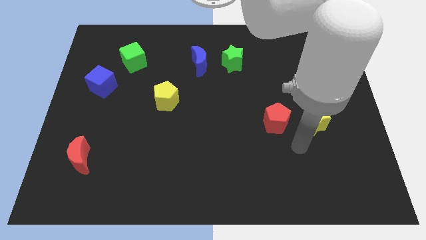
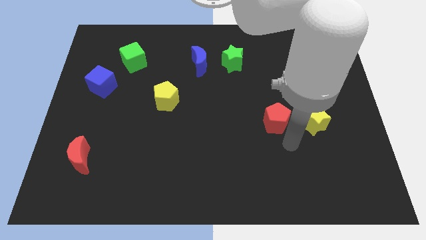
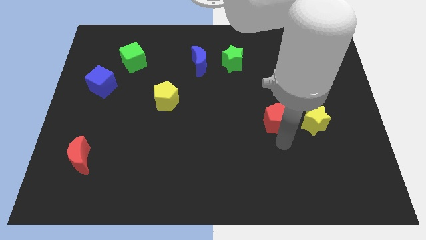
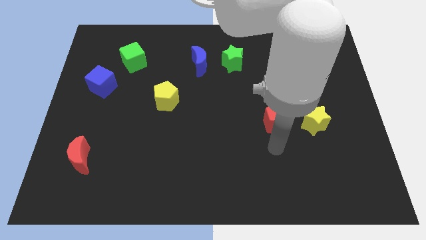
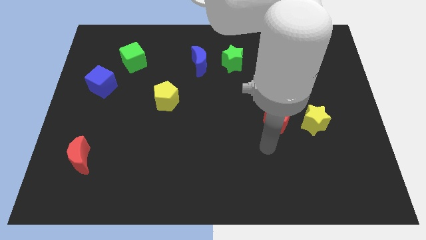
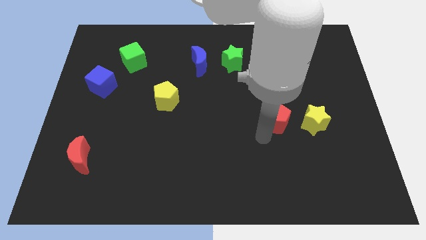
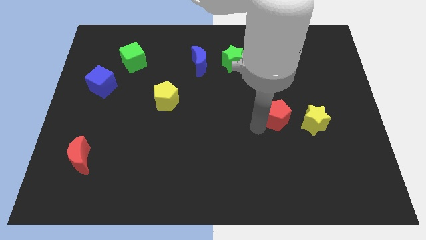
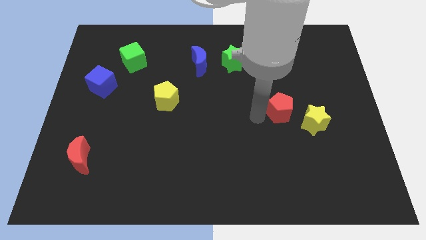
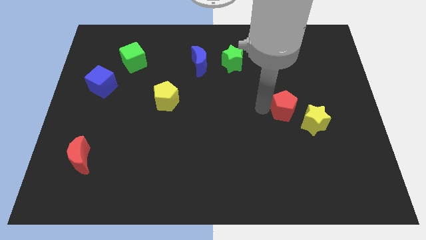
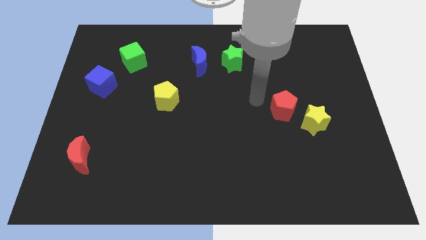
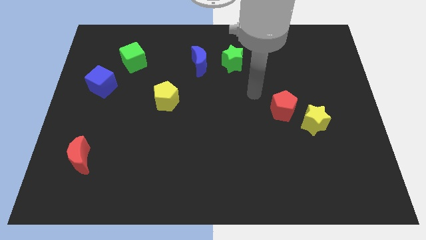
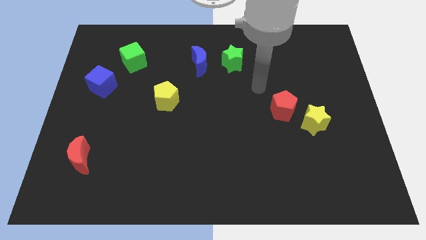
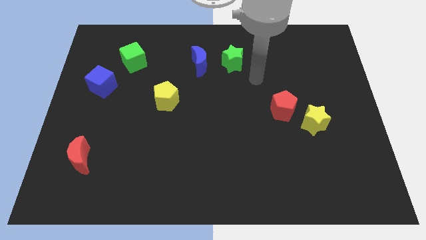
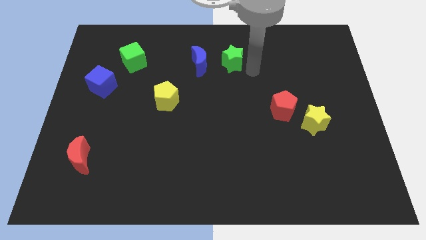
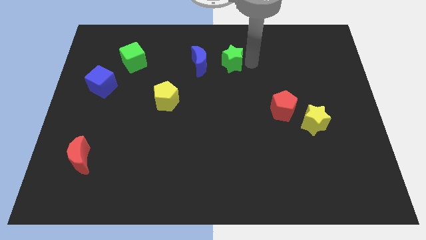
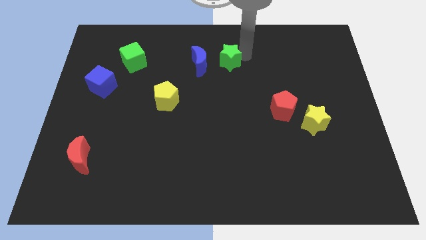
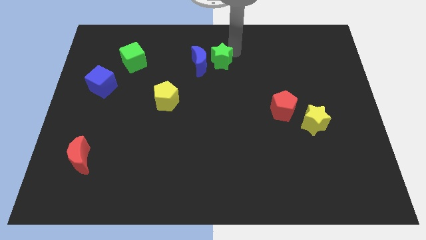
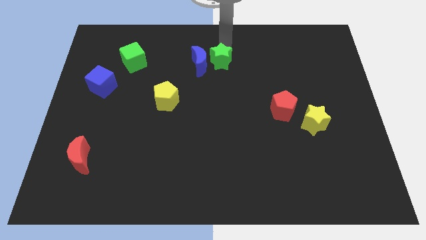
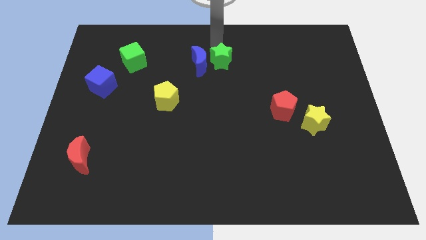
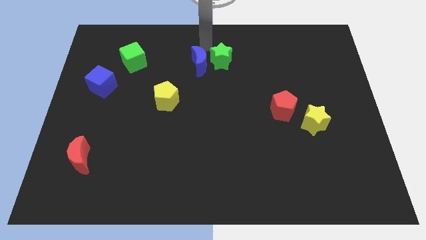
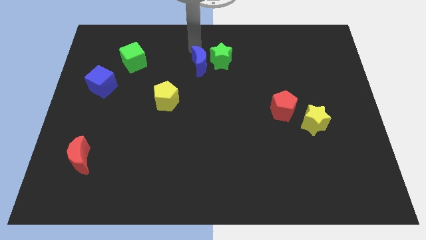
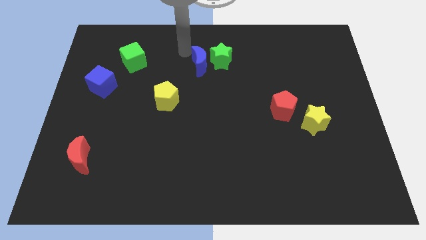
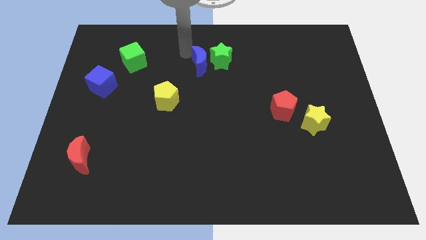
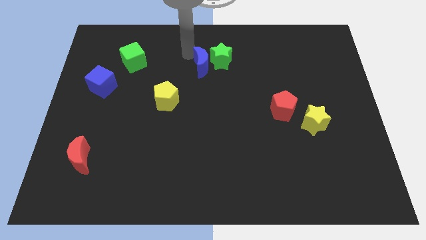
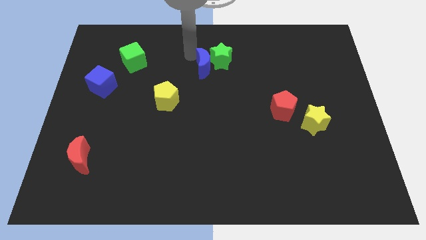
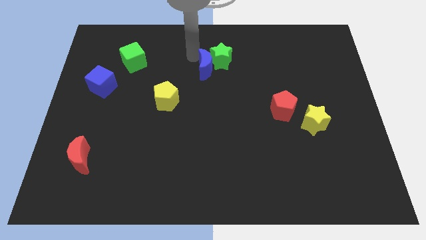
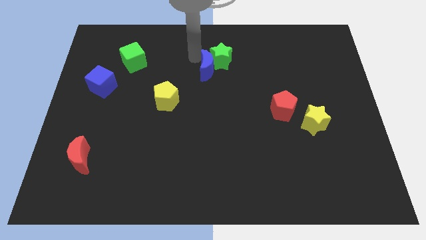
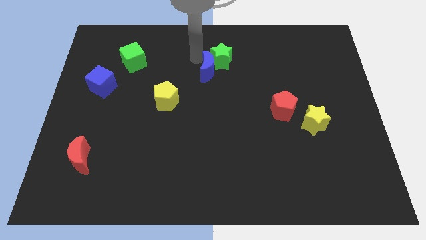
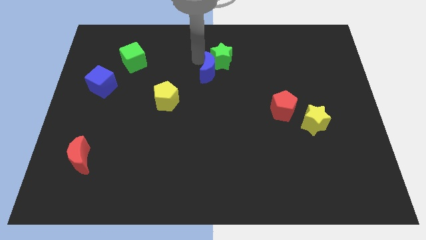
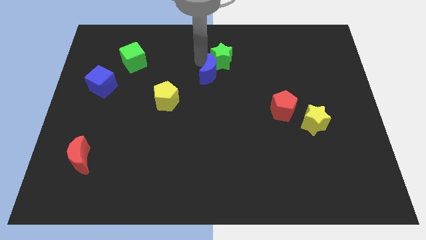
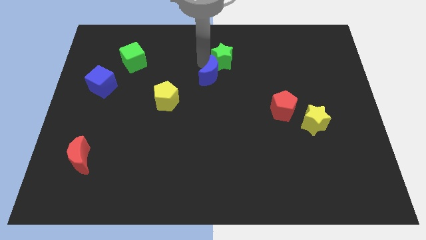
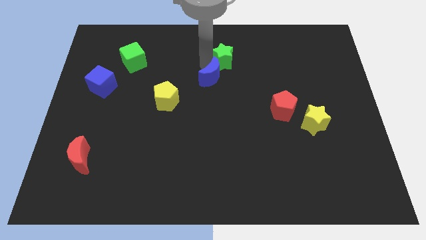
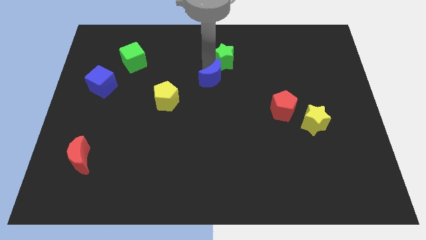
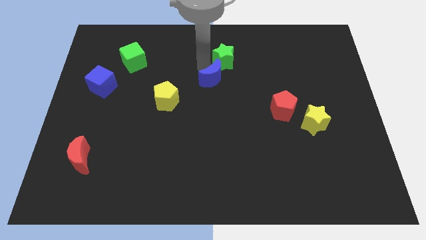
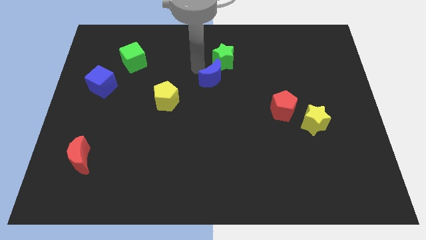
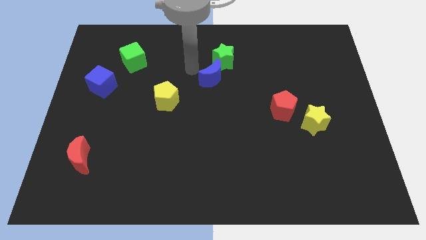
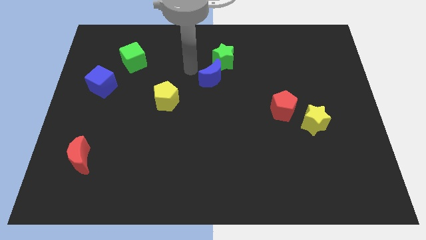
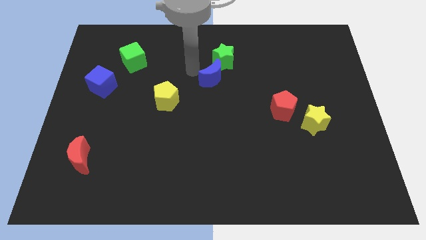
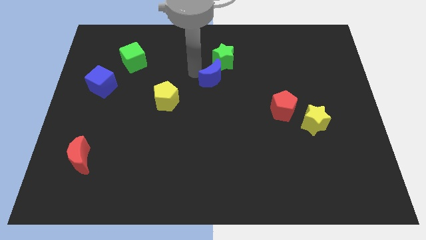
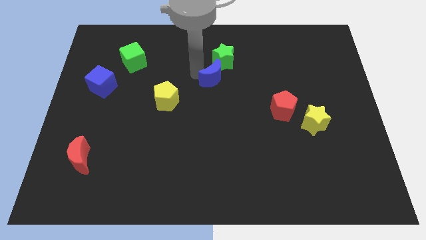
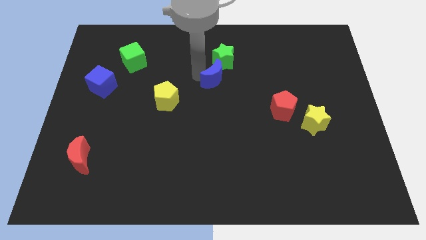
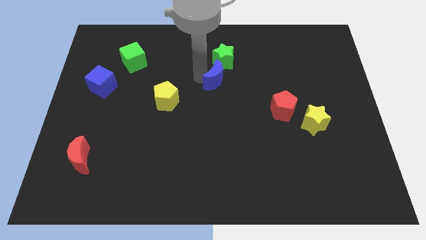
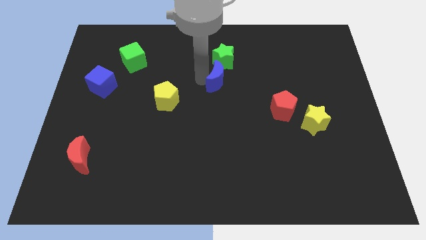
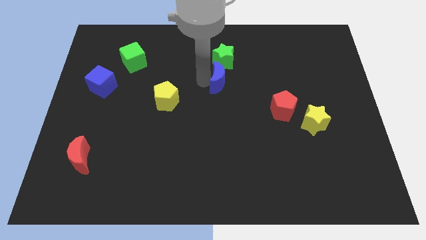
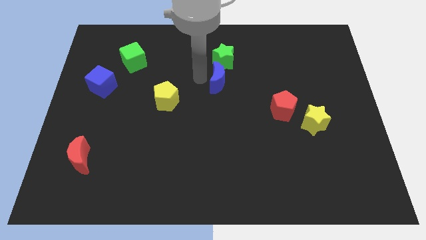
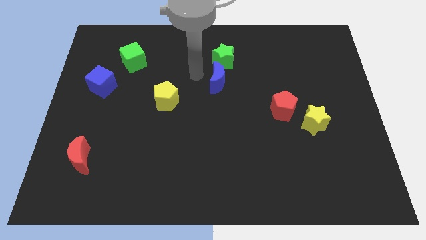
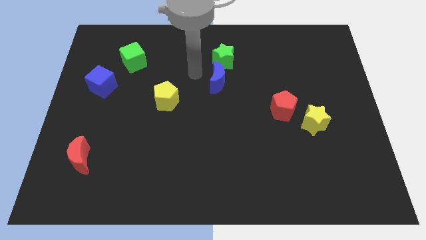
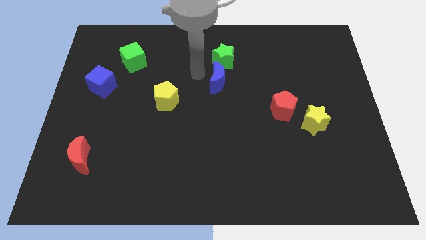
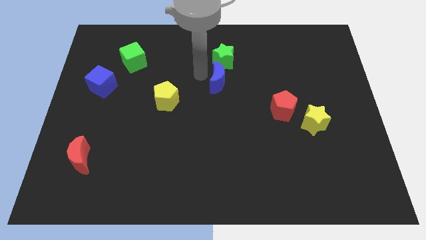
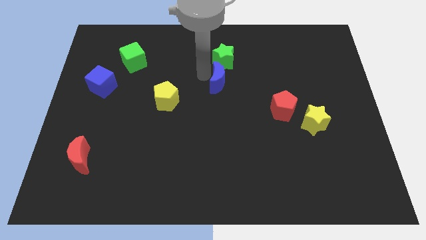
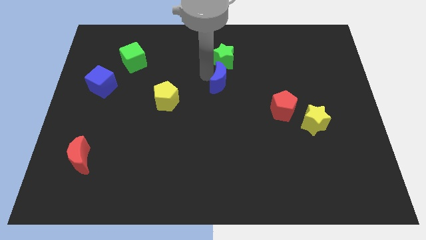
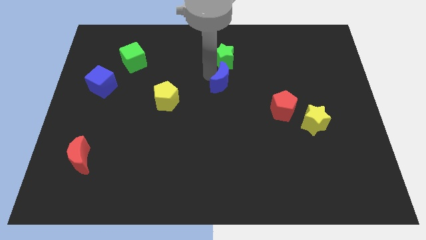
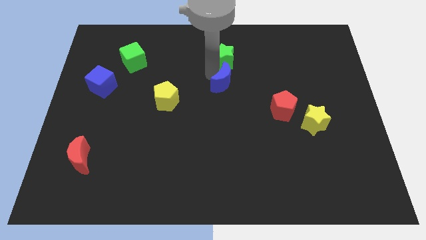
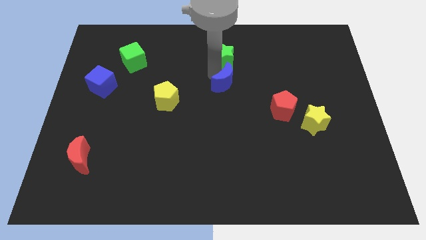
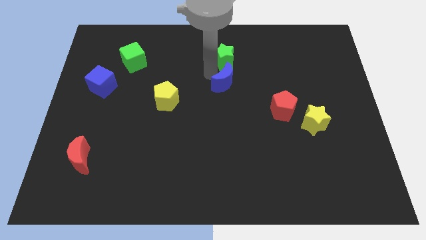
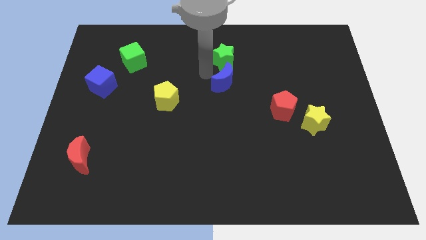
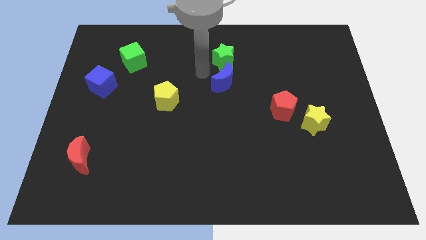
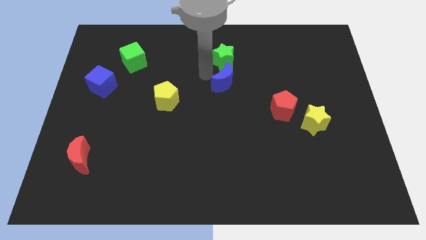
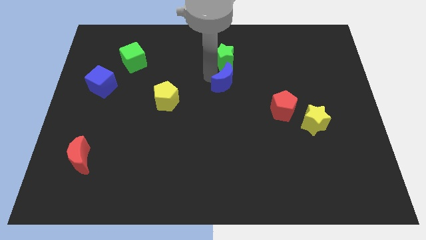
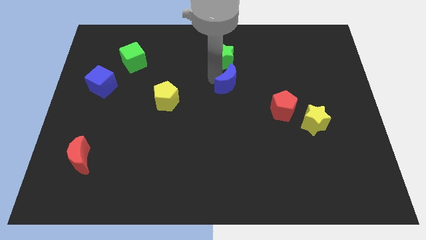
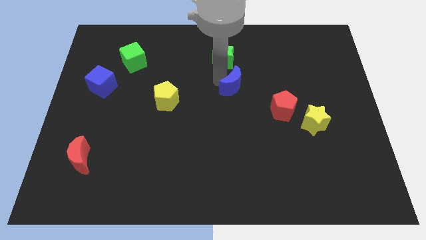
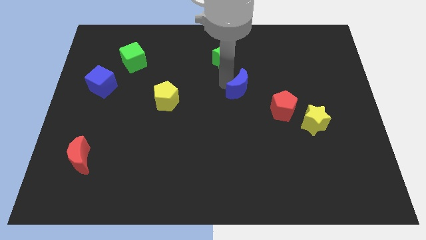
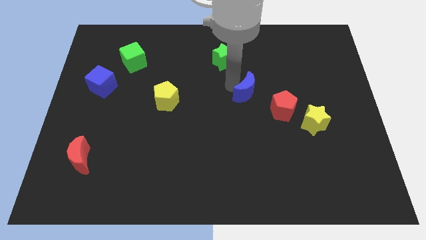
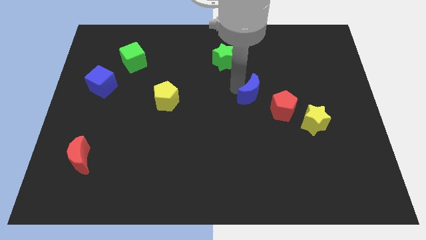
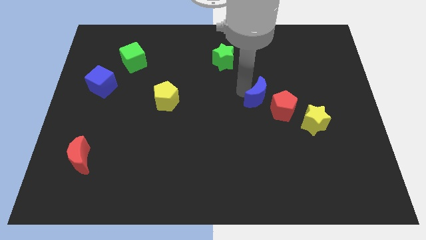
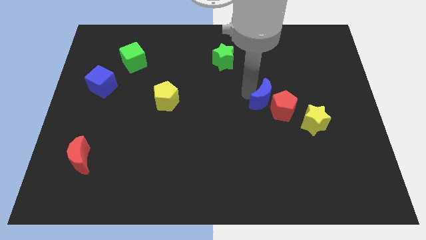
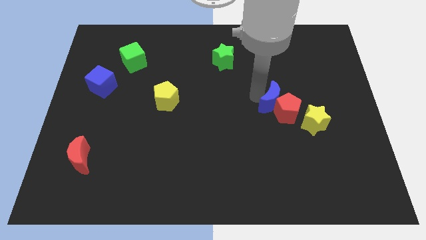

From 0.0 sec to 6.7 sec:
move the blue moon diagonally down and right

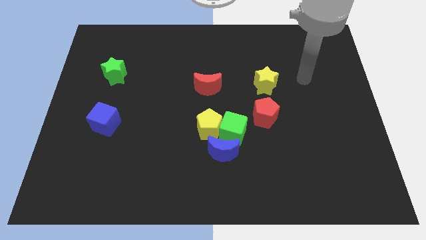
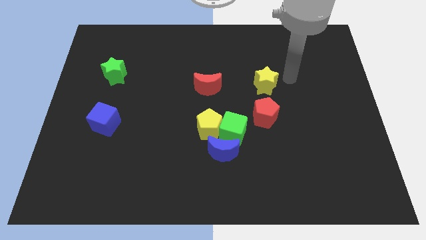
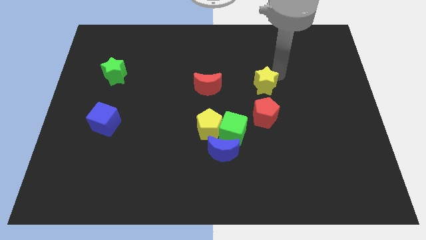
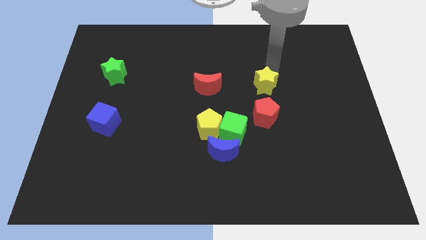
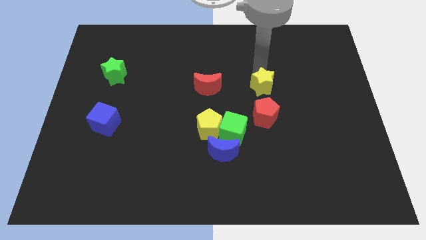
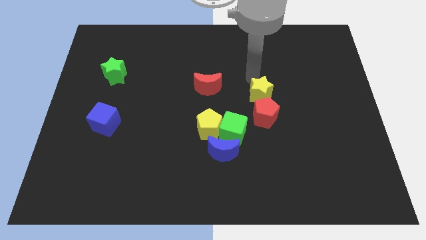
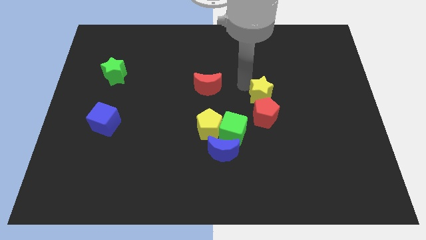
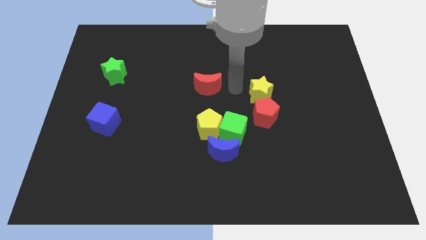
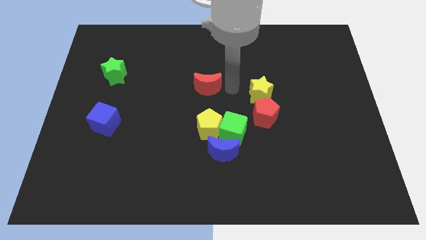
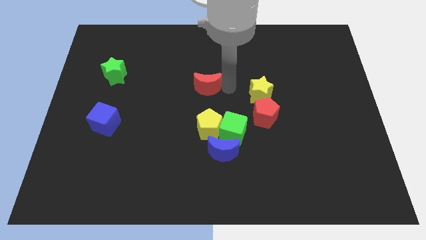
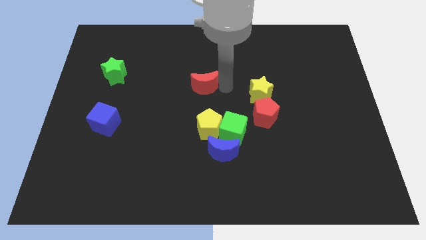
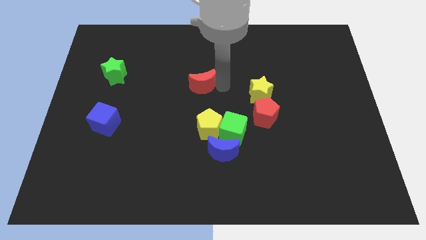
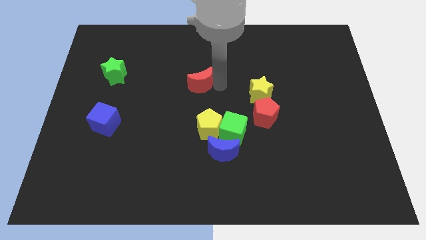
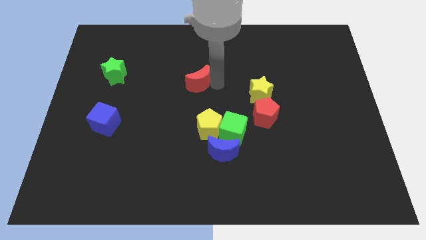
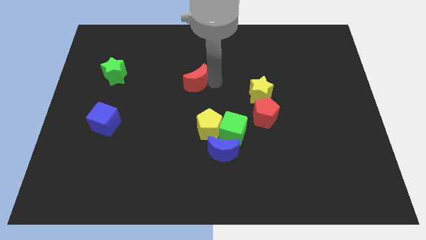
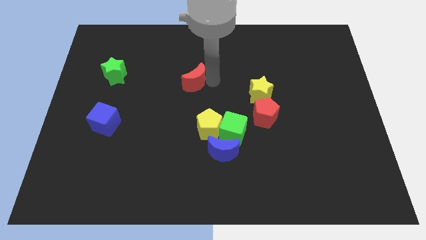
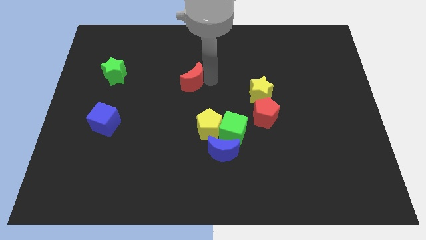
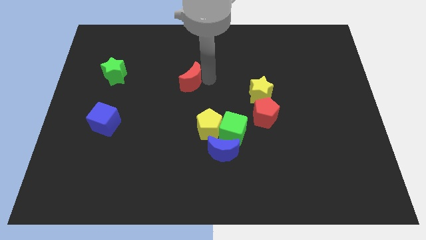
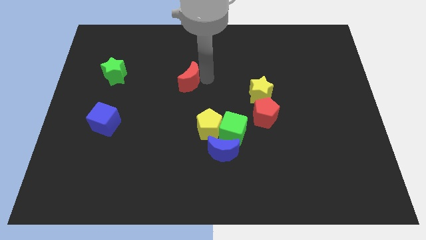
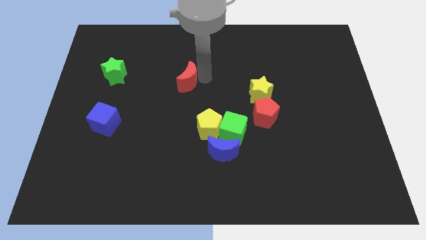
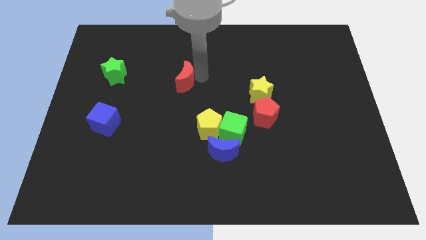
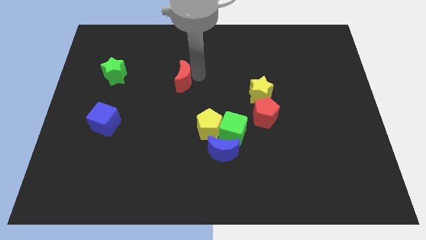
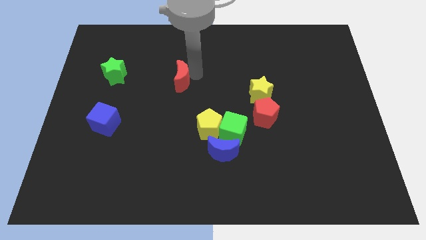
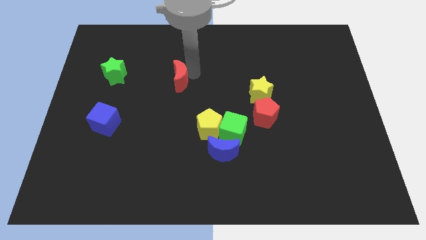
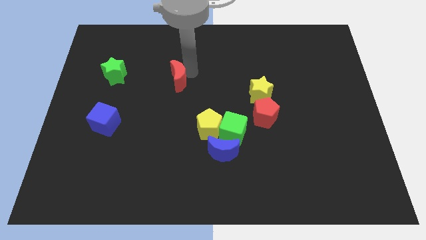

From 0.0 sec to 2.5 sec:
push the red moon slightly left
